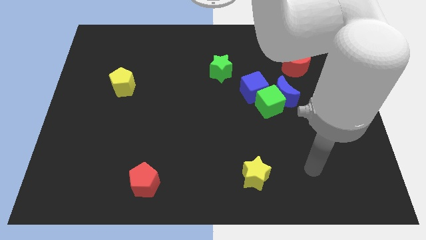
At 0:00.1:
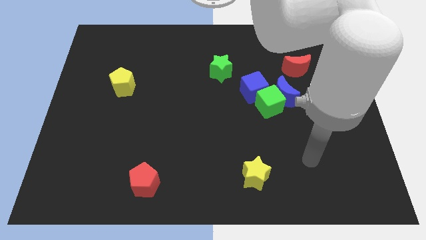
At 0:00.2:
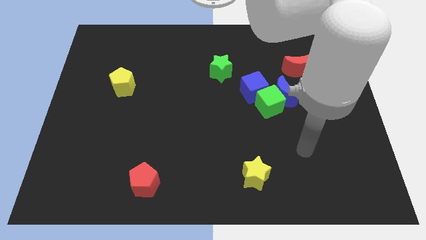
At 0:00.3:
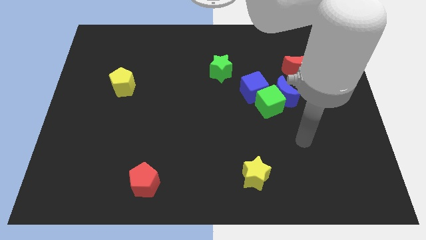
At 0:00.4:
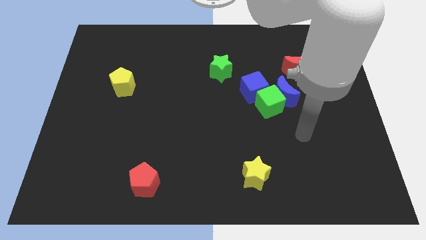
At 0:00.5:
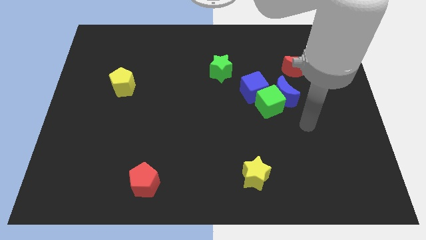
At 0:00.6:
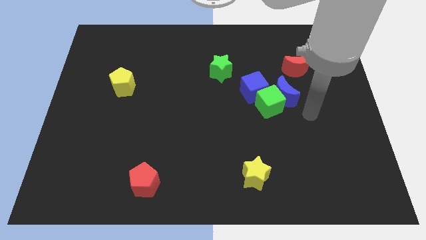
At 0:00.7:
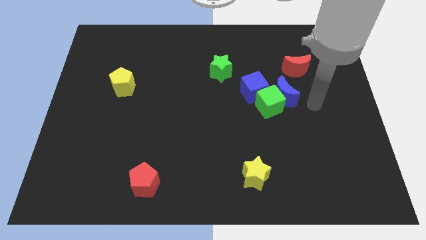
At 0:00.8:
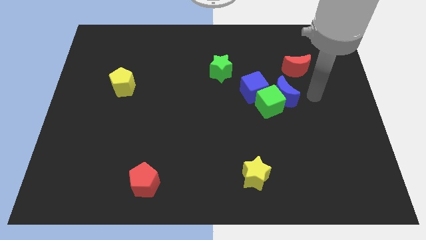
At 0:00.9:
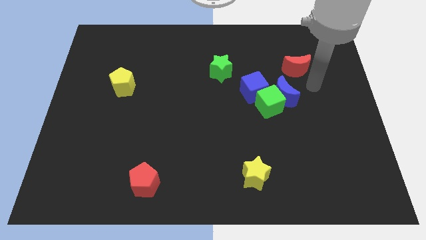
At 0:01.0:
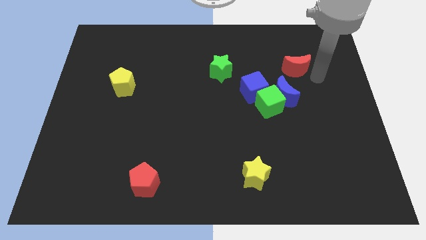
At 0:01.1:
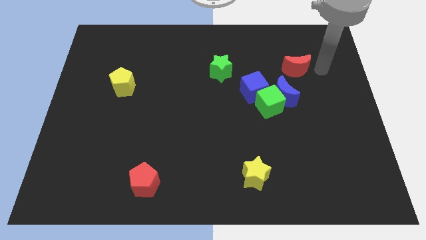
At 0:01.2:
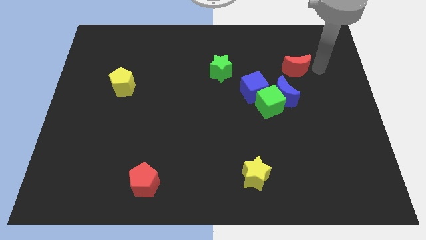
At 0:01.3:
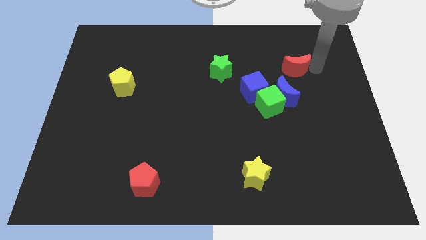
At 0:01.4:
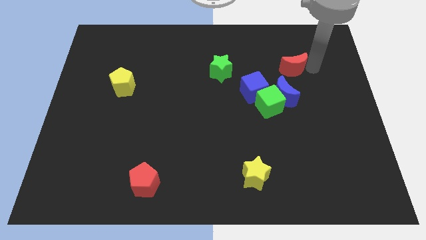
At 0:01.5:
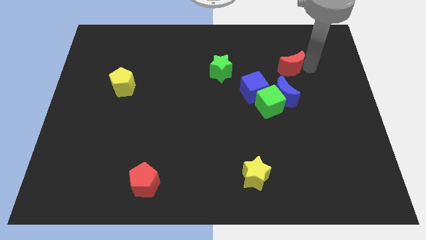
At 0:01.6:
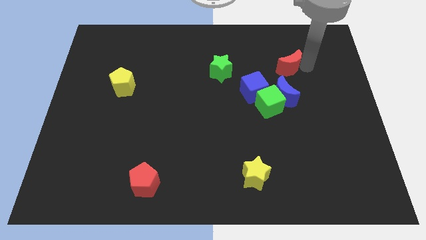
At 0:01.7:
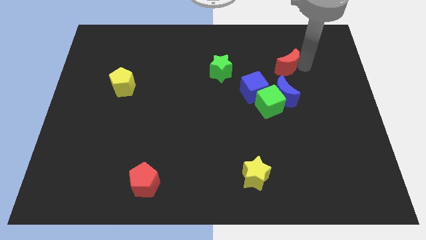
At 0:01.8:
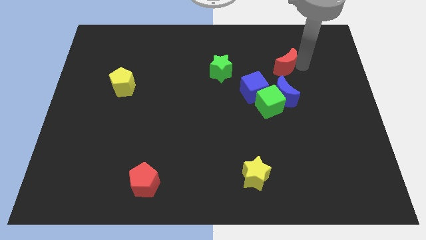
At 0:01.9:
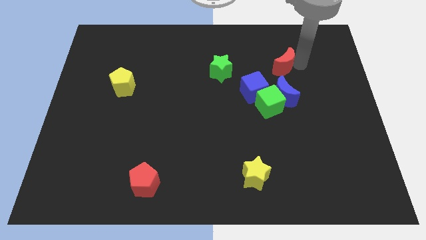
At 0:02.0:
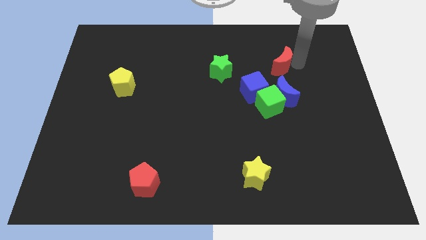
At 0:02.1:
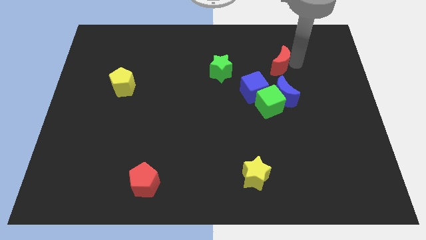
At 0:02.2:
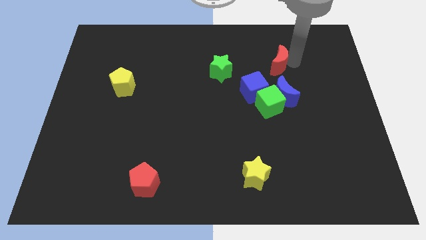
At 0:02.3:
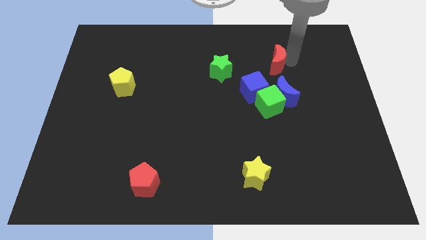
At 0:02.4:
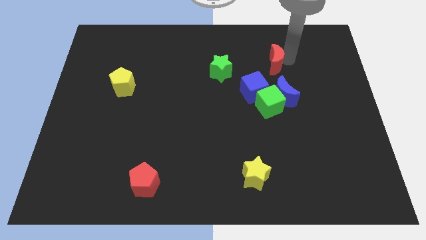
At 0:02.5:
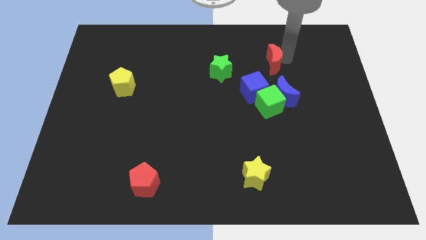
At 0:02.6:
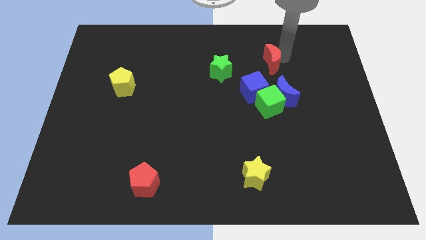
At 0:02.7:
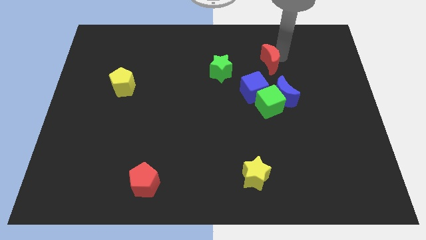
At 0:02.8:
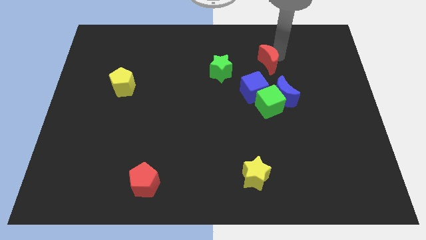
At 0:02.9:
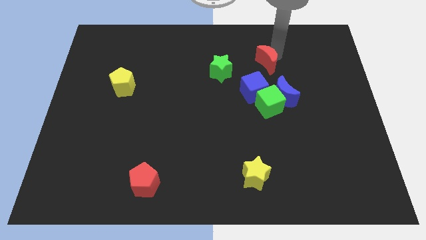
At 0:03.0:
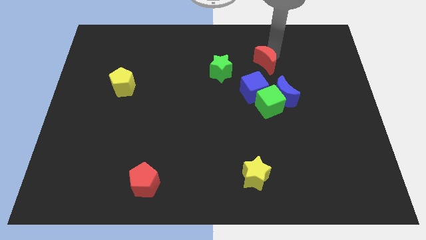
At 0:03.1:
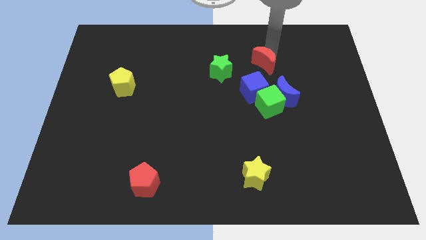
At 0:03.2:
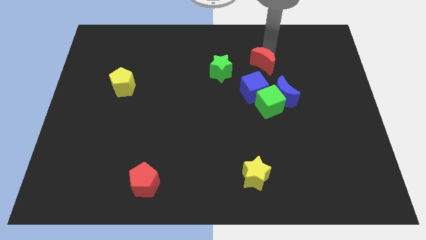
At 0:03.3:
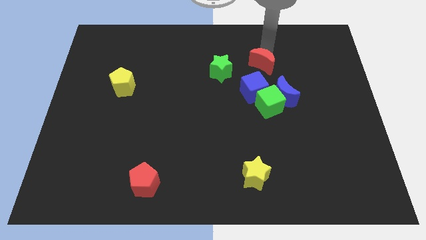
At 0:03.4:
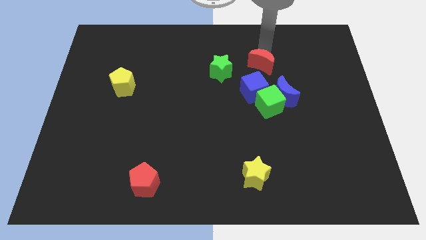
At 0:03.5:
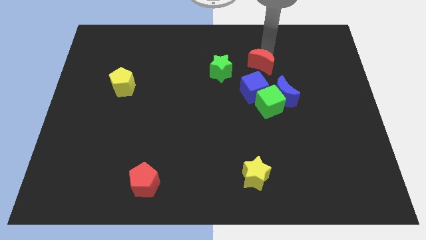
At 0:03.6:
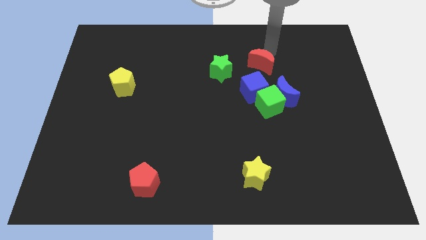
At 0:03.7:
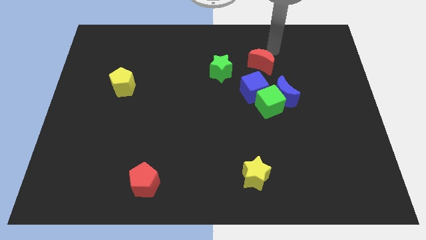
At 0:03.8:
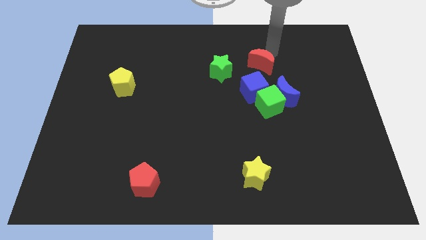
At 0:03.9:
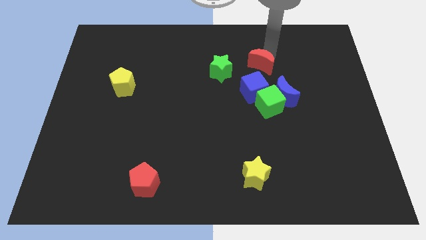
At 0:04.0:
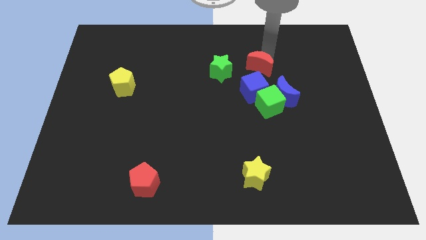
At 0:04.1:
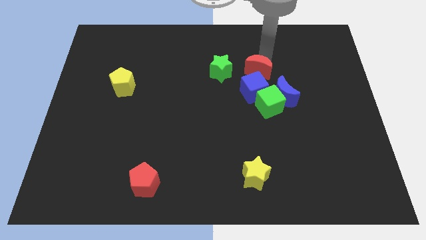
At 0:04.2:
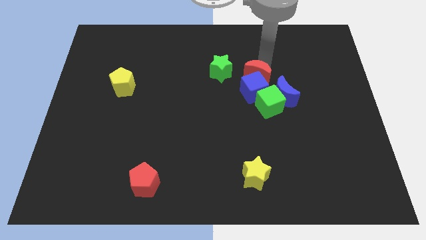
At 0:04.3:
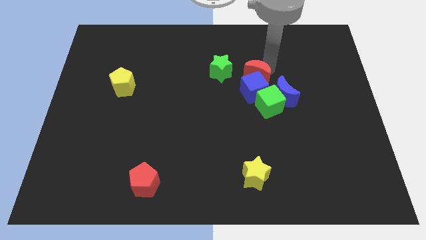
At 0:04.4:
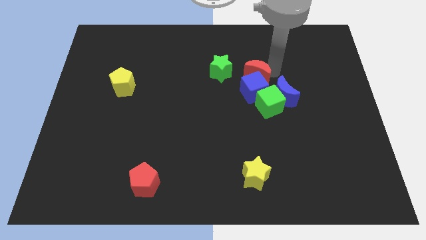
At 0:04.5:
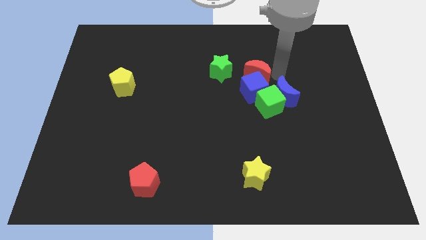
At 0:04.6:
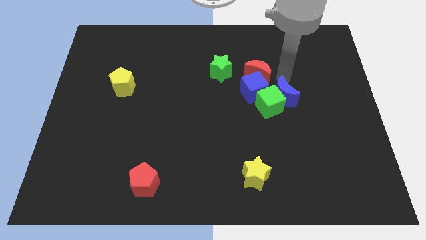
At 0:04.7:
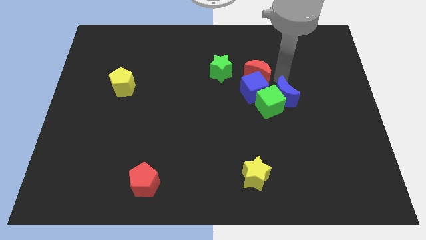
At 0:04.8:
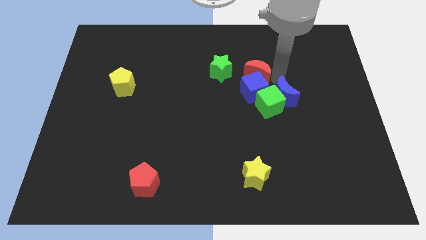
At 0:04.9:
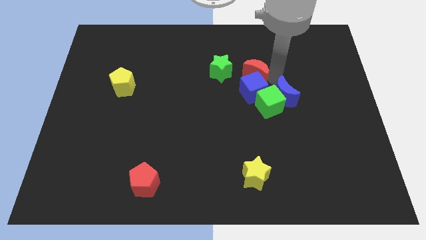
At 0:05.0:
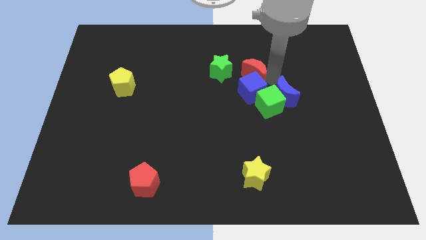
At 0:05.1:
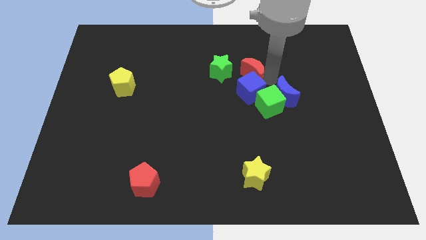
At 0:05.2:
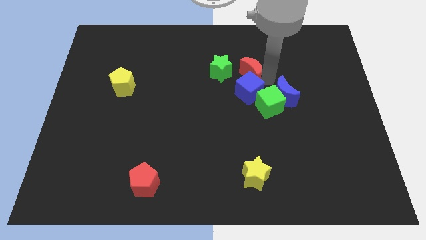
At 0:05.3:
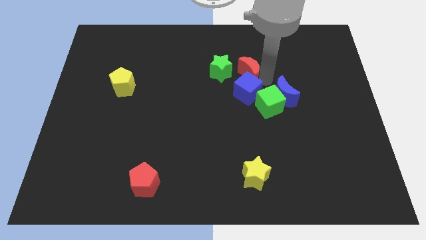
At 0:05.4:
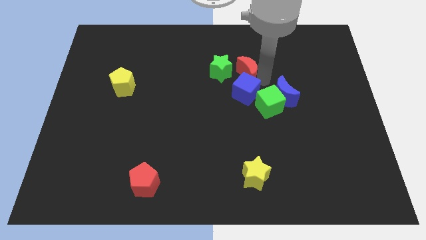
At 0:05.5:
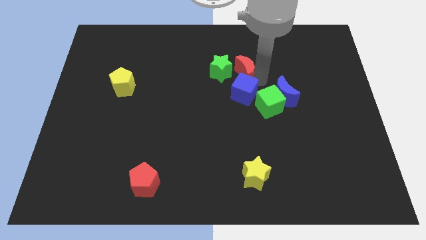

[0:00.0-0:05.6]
move the red moon next to the green star
